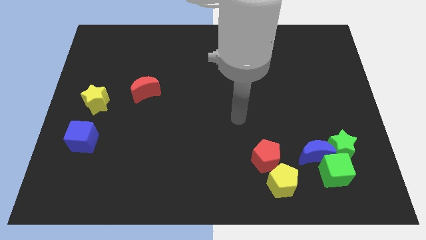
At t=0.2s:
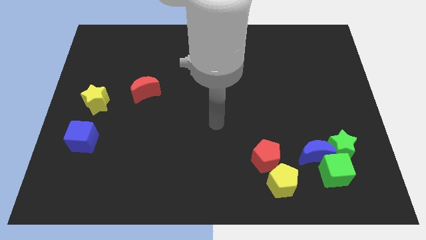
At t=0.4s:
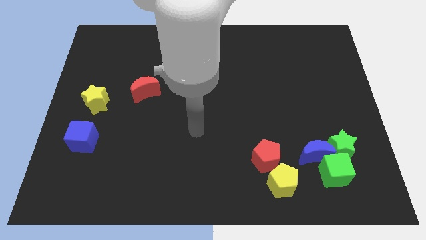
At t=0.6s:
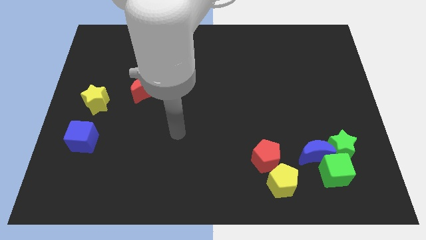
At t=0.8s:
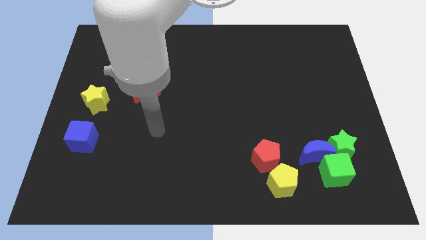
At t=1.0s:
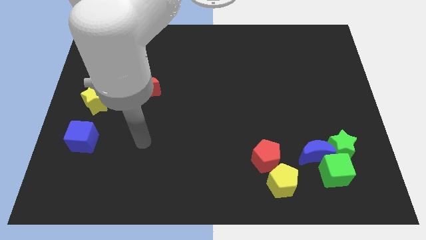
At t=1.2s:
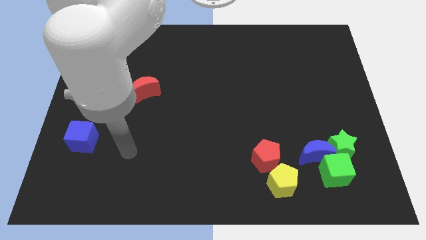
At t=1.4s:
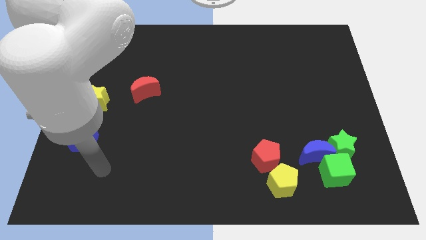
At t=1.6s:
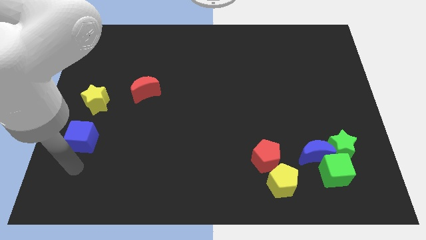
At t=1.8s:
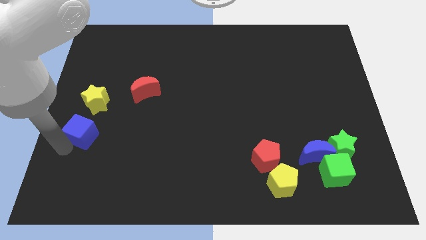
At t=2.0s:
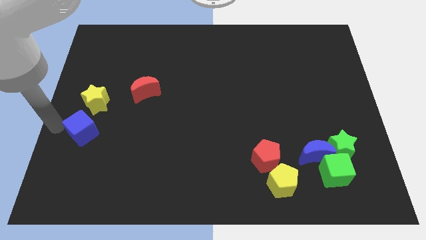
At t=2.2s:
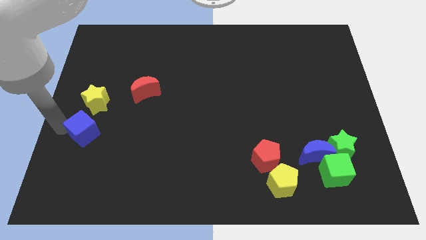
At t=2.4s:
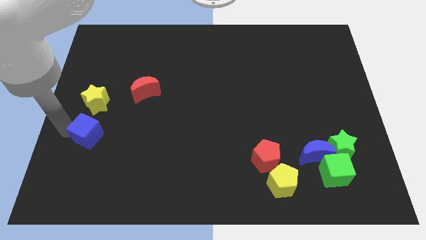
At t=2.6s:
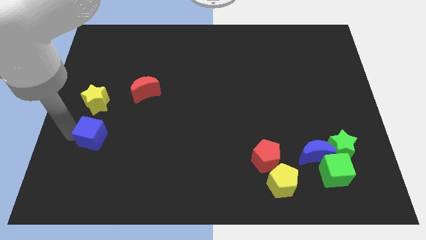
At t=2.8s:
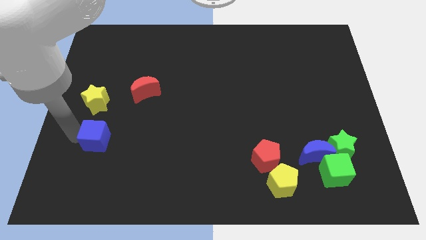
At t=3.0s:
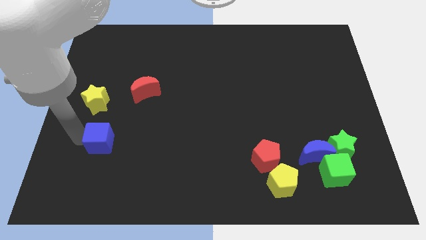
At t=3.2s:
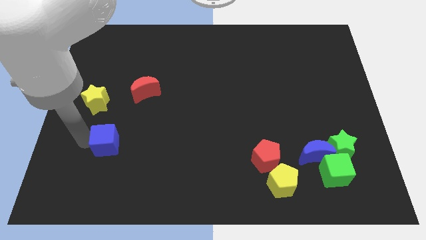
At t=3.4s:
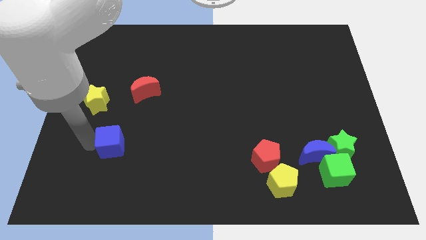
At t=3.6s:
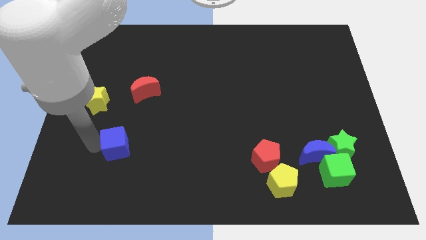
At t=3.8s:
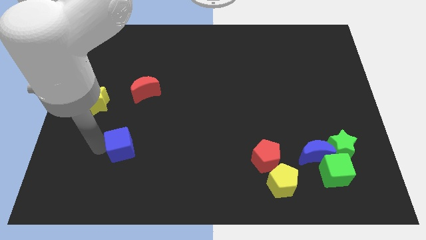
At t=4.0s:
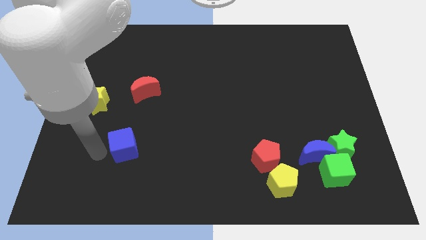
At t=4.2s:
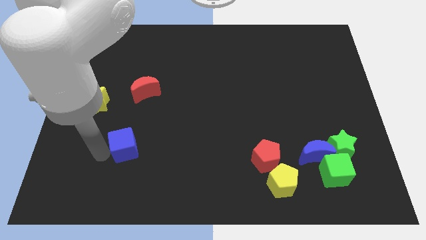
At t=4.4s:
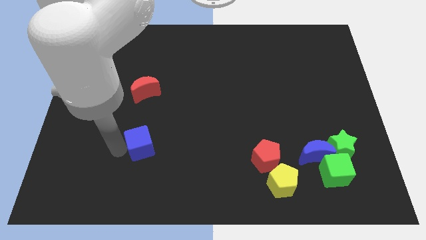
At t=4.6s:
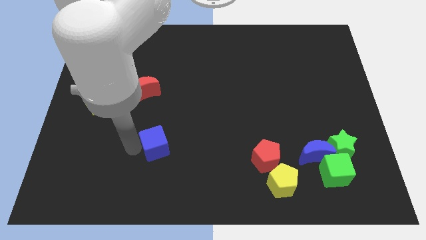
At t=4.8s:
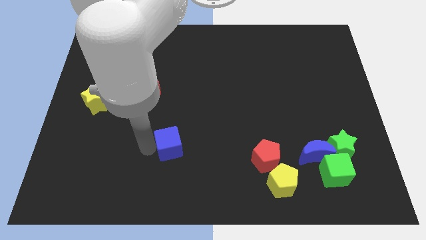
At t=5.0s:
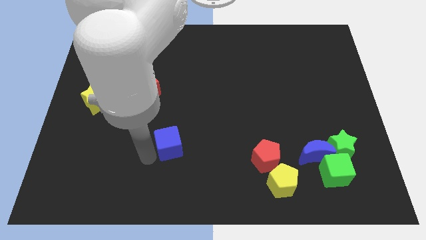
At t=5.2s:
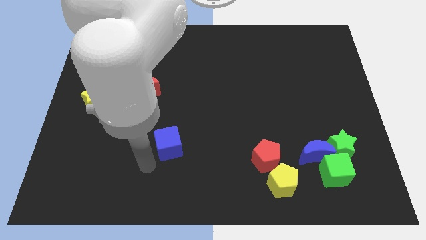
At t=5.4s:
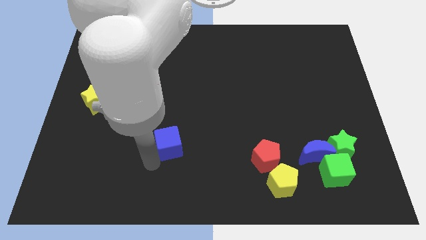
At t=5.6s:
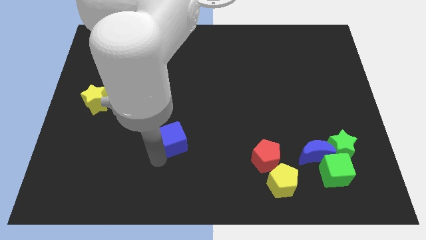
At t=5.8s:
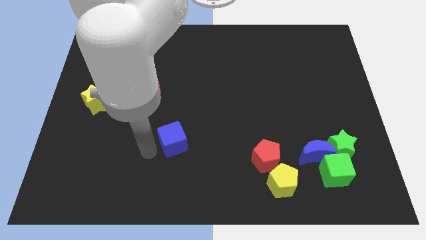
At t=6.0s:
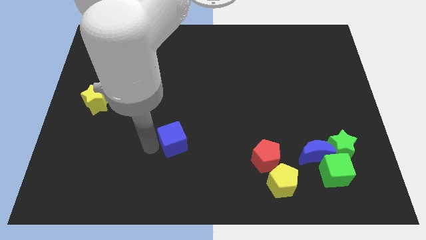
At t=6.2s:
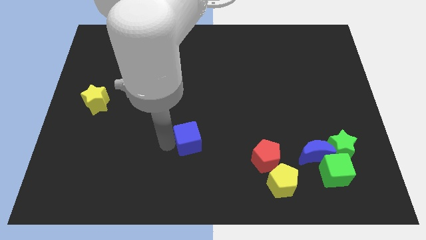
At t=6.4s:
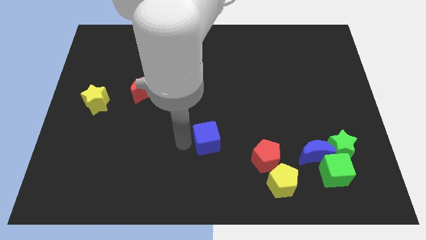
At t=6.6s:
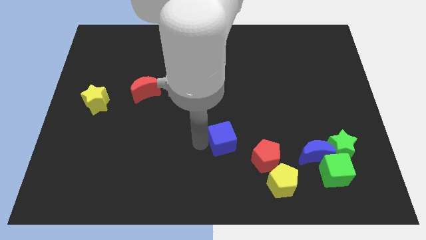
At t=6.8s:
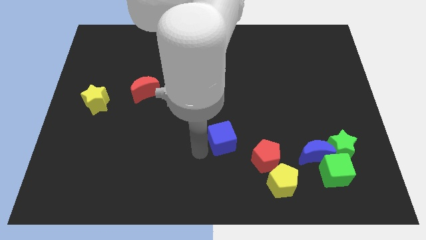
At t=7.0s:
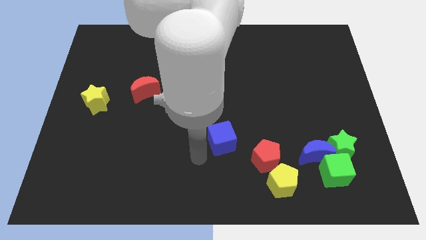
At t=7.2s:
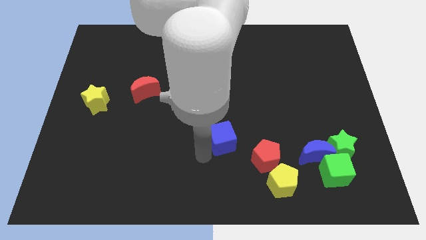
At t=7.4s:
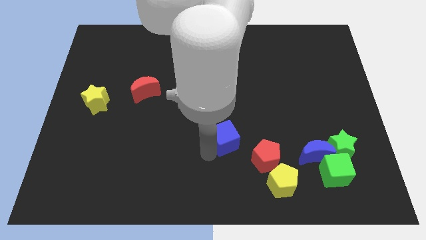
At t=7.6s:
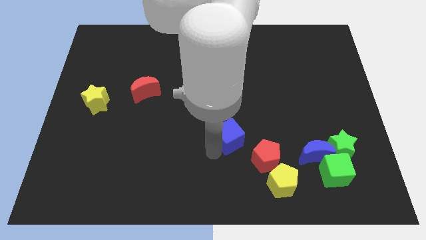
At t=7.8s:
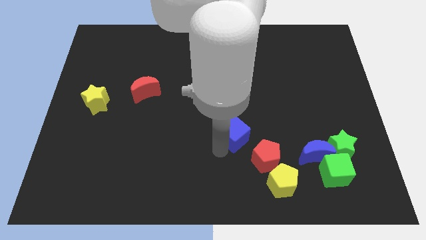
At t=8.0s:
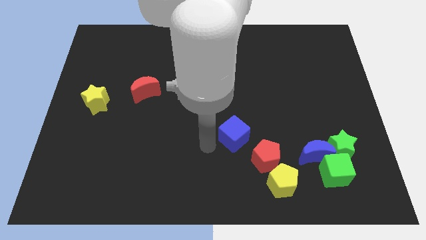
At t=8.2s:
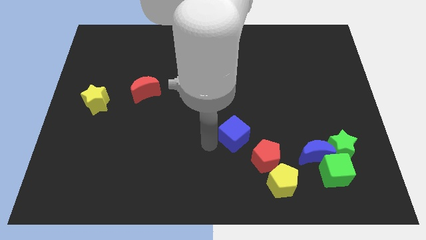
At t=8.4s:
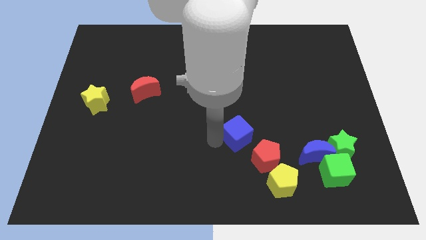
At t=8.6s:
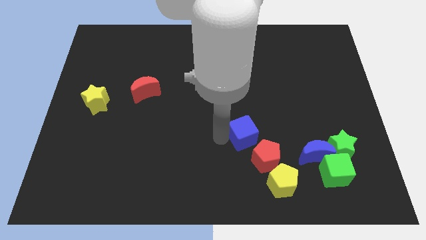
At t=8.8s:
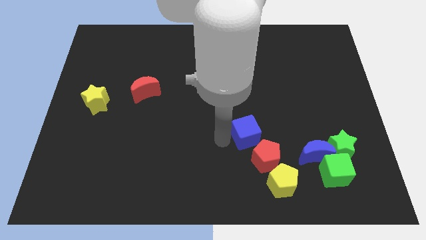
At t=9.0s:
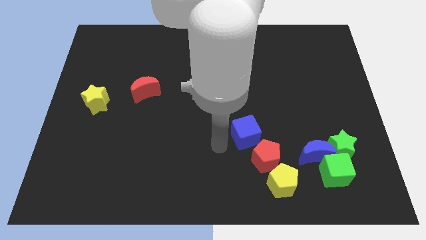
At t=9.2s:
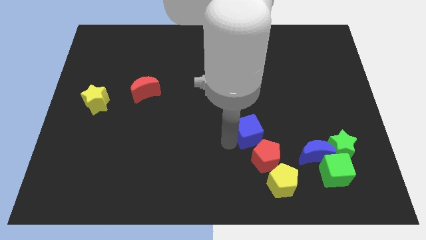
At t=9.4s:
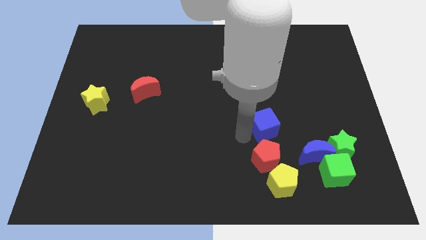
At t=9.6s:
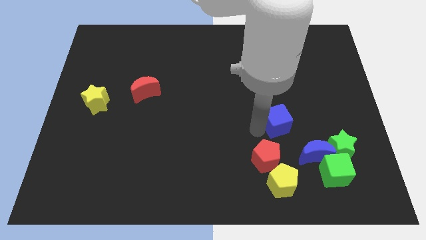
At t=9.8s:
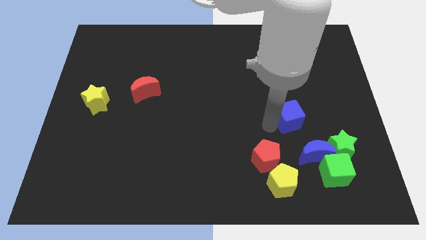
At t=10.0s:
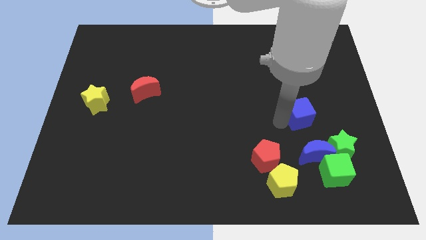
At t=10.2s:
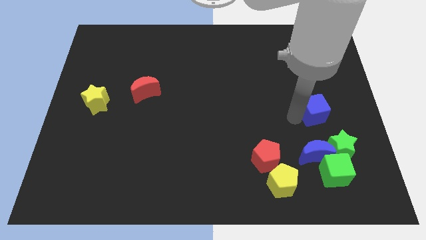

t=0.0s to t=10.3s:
move the blue cube to the top side of the green star

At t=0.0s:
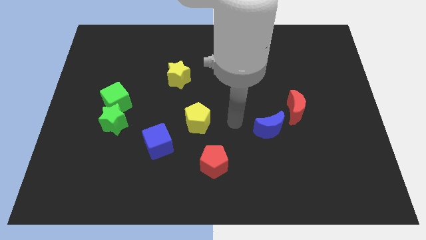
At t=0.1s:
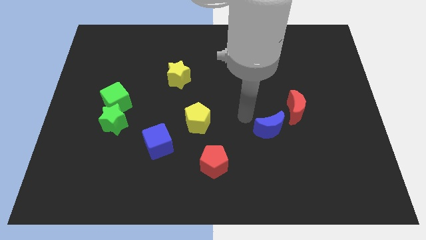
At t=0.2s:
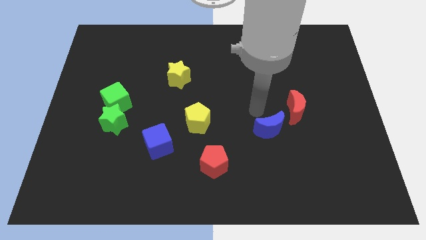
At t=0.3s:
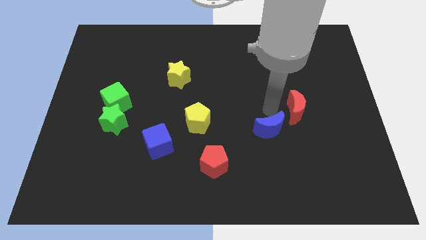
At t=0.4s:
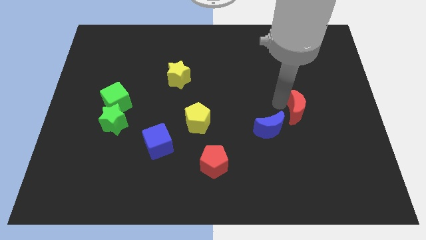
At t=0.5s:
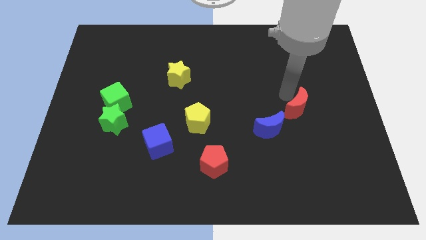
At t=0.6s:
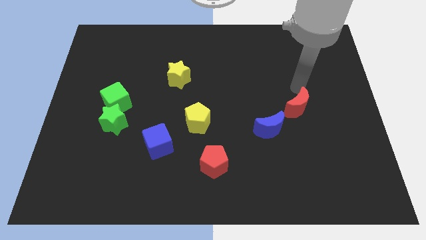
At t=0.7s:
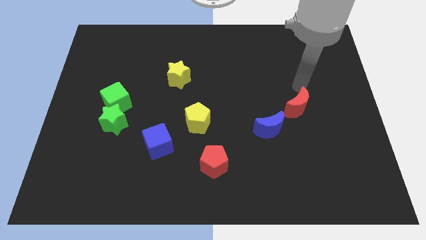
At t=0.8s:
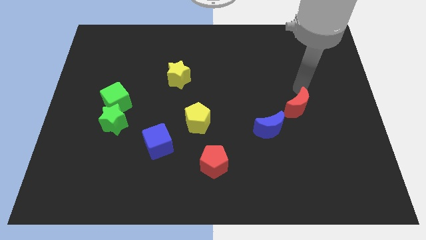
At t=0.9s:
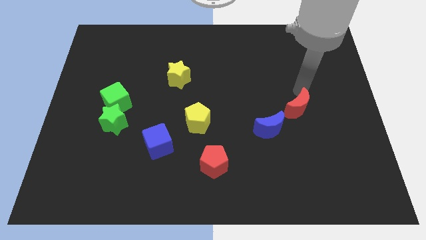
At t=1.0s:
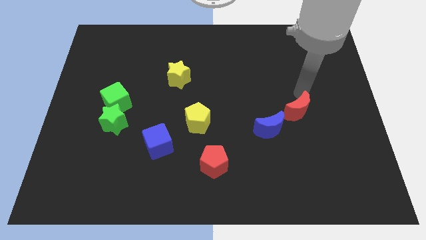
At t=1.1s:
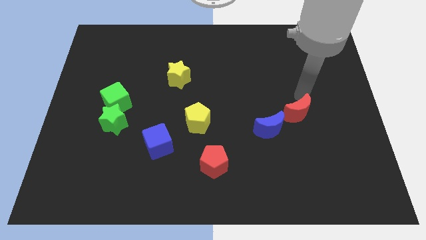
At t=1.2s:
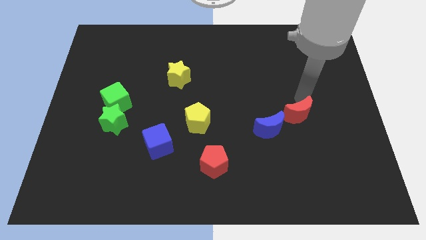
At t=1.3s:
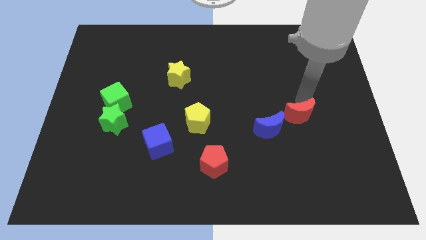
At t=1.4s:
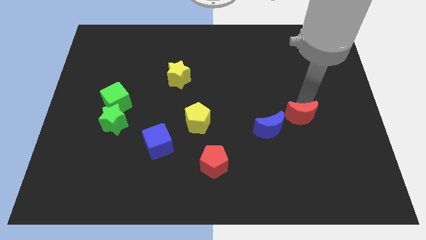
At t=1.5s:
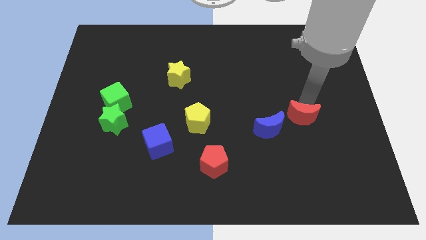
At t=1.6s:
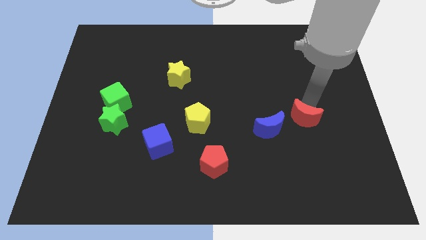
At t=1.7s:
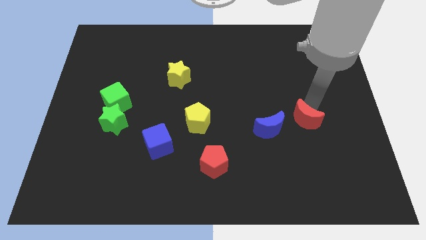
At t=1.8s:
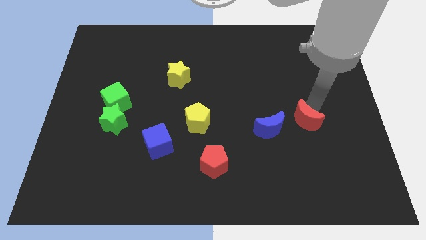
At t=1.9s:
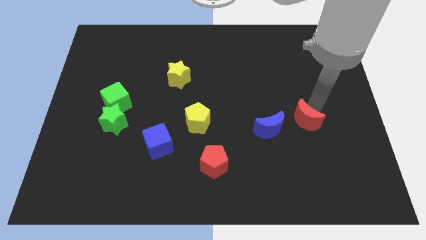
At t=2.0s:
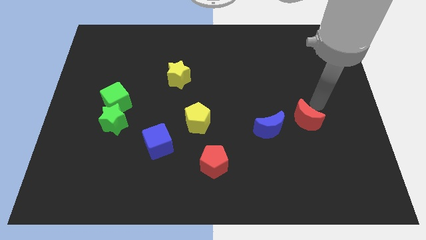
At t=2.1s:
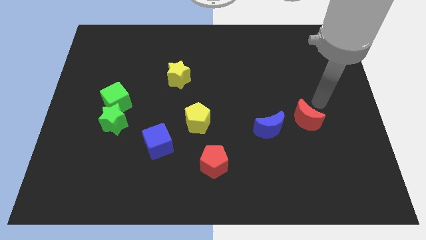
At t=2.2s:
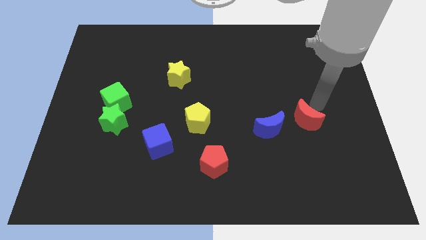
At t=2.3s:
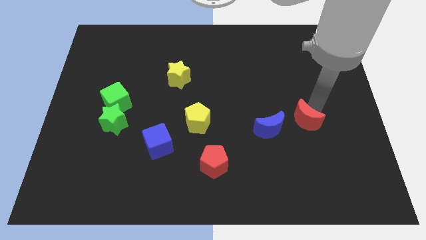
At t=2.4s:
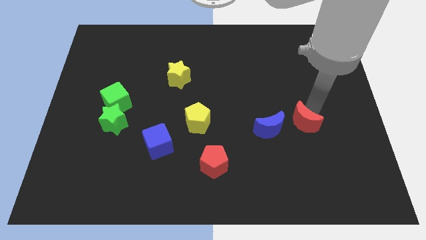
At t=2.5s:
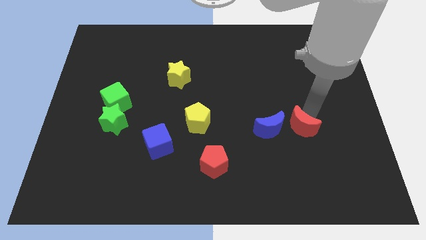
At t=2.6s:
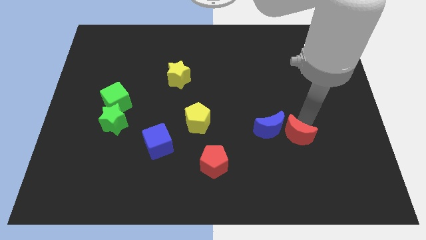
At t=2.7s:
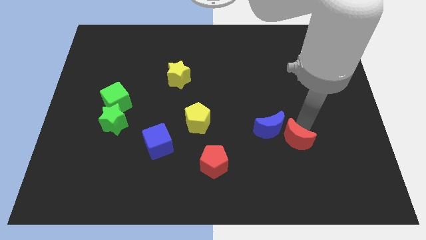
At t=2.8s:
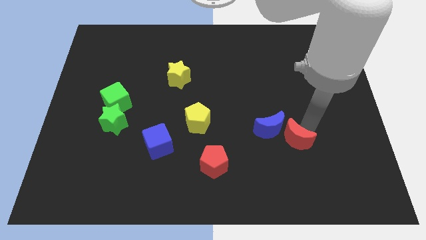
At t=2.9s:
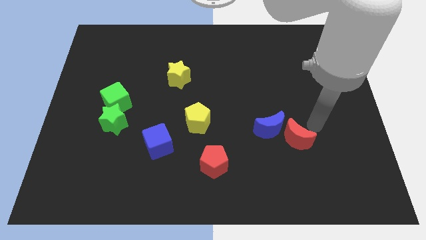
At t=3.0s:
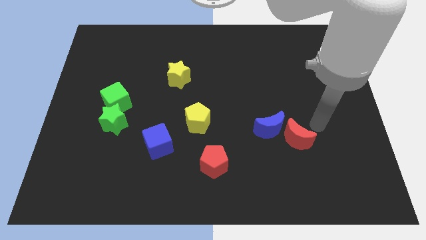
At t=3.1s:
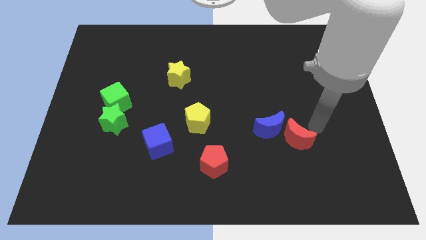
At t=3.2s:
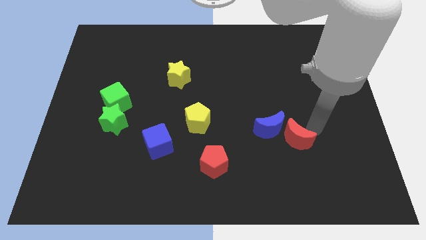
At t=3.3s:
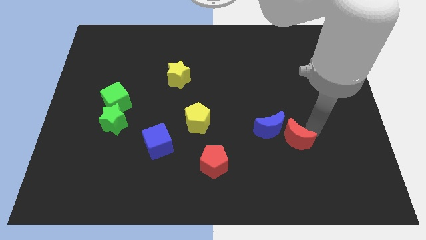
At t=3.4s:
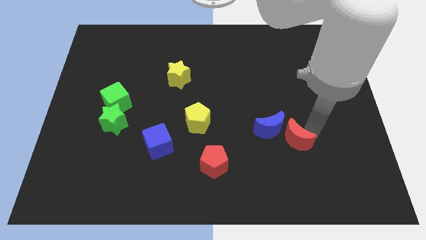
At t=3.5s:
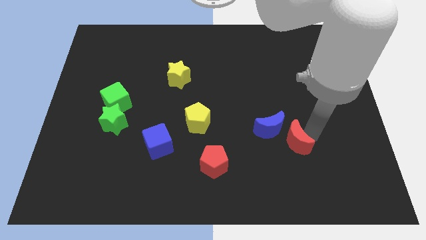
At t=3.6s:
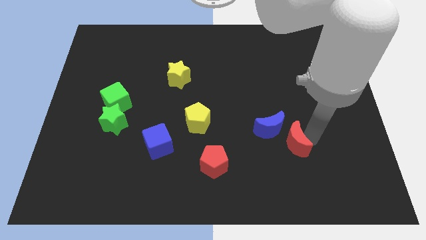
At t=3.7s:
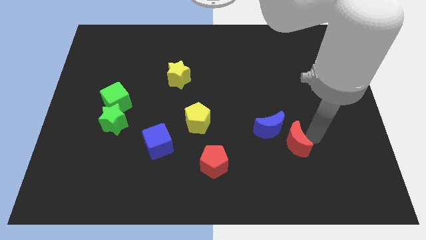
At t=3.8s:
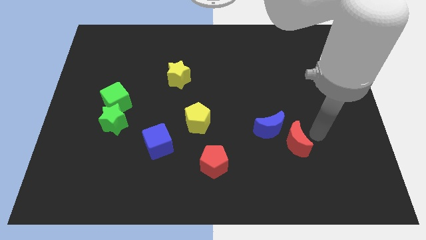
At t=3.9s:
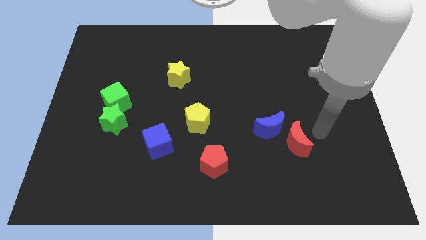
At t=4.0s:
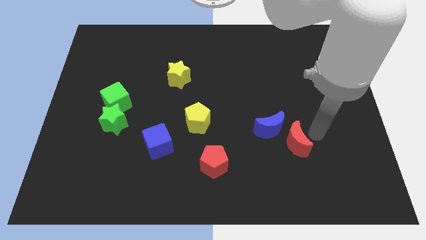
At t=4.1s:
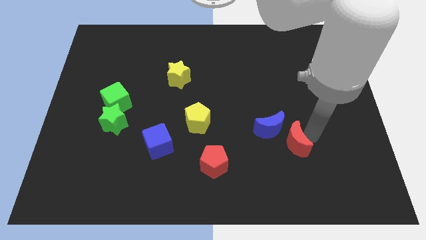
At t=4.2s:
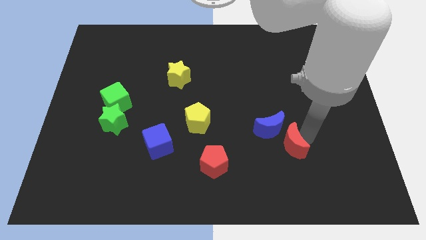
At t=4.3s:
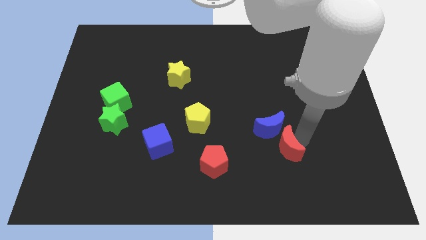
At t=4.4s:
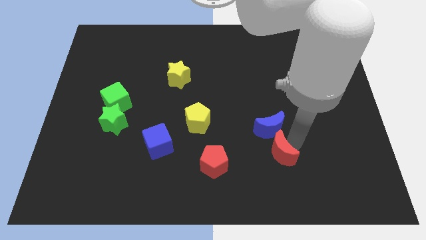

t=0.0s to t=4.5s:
move the red moon just right of the red pentagon
